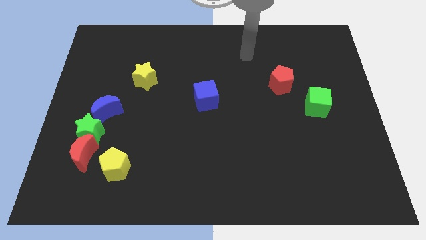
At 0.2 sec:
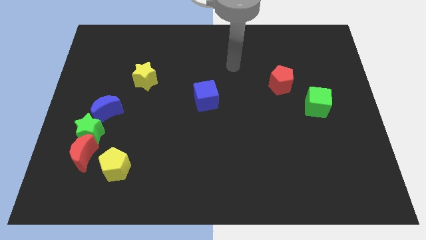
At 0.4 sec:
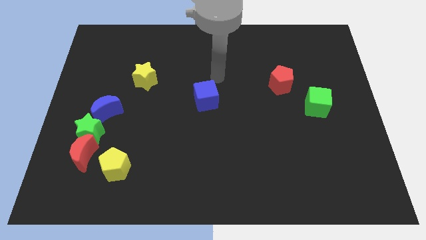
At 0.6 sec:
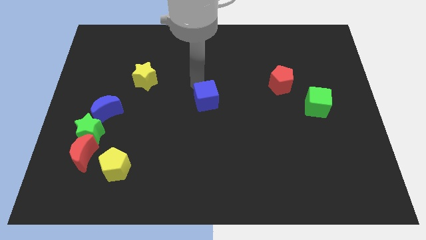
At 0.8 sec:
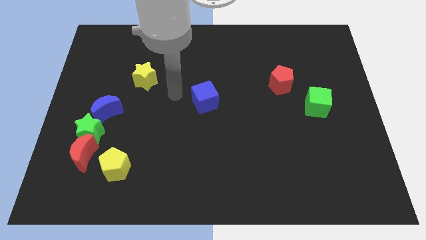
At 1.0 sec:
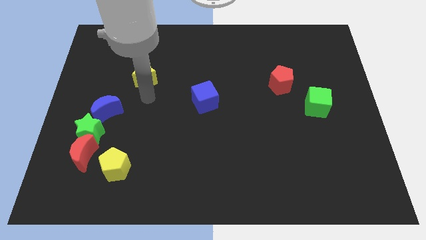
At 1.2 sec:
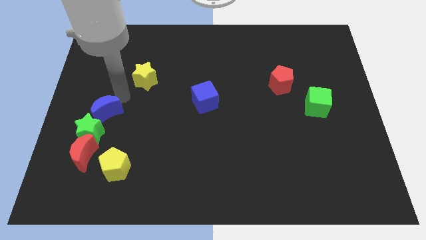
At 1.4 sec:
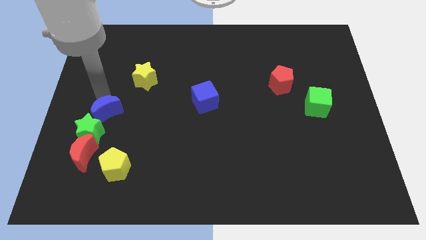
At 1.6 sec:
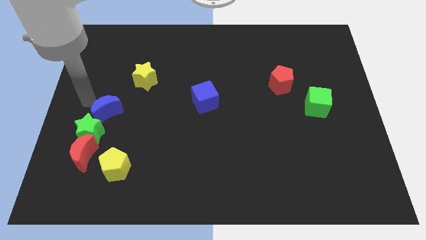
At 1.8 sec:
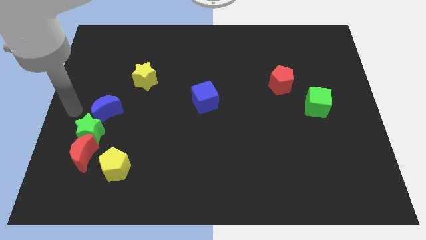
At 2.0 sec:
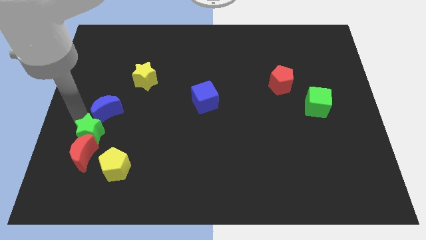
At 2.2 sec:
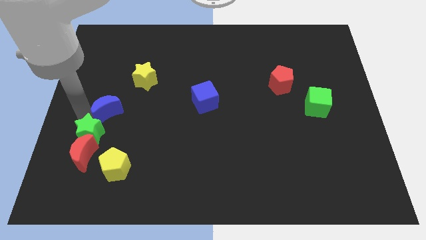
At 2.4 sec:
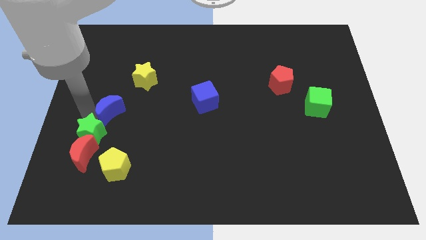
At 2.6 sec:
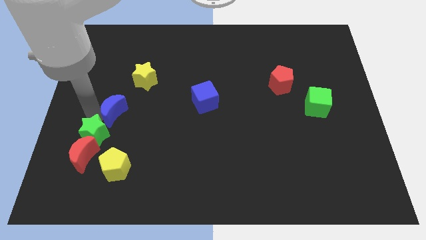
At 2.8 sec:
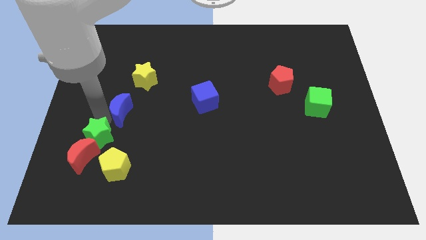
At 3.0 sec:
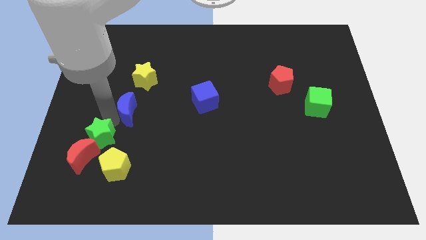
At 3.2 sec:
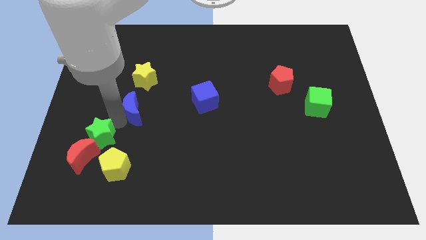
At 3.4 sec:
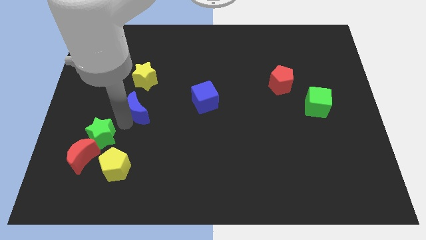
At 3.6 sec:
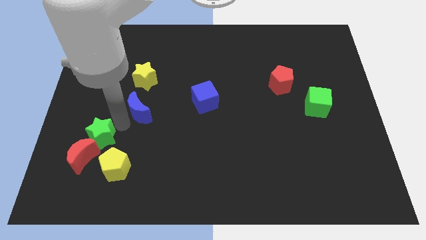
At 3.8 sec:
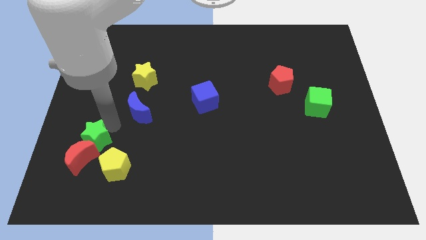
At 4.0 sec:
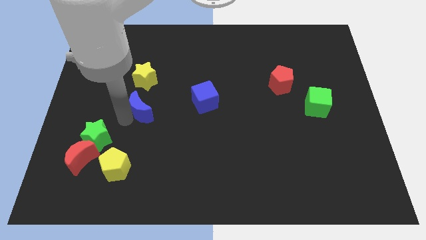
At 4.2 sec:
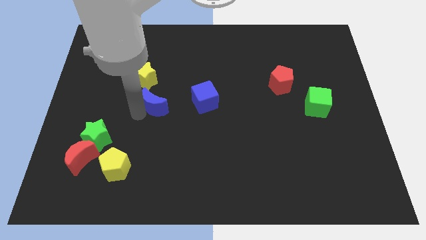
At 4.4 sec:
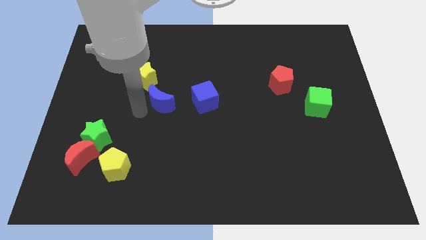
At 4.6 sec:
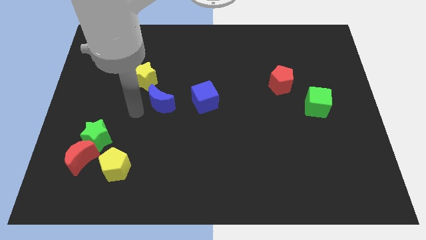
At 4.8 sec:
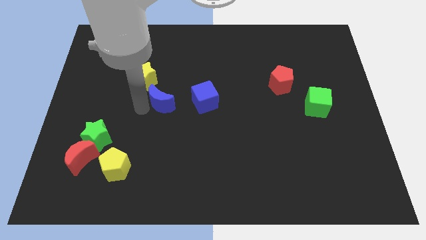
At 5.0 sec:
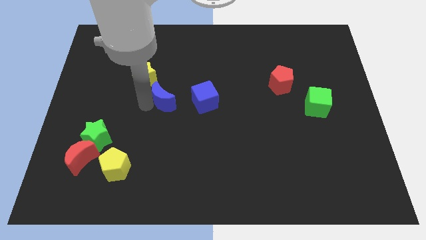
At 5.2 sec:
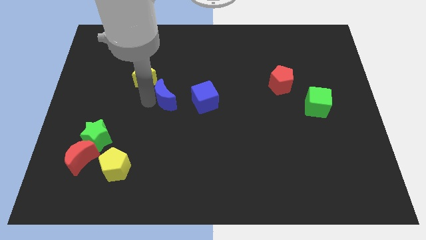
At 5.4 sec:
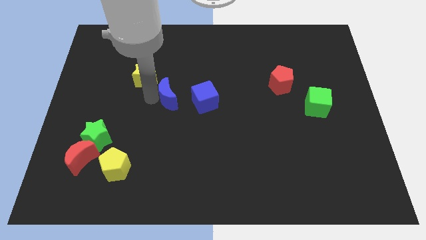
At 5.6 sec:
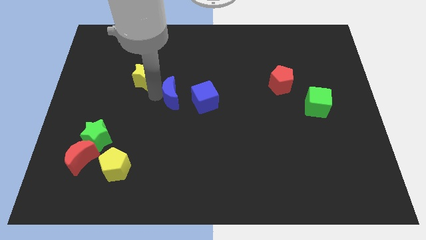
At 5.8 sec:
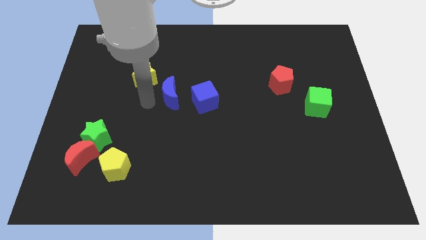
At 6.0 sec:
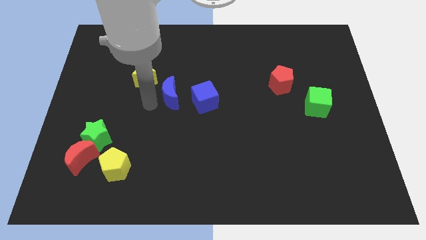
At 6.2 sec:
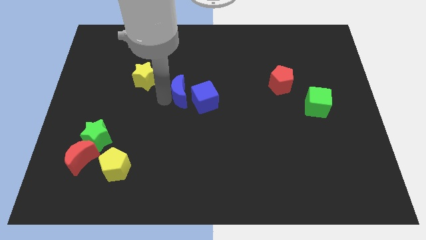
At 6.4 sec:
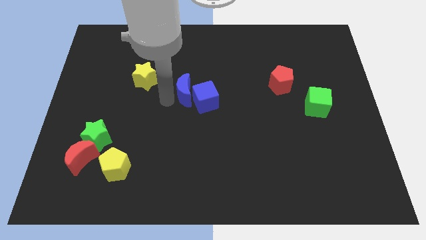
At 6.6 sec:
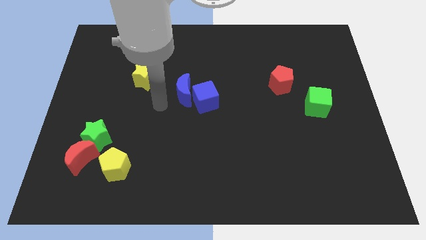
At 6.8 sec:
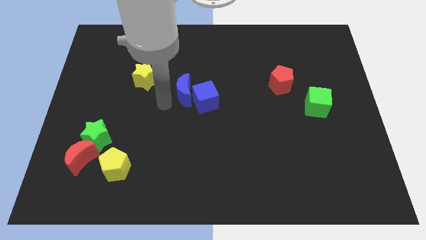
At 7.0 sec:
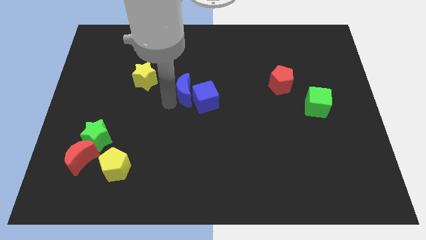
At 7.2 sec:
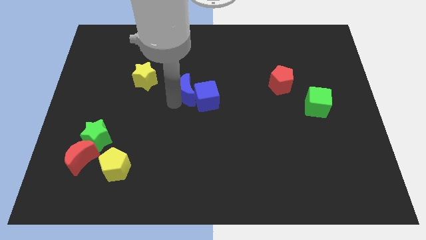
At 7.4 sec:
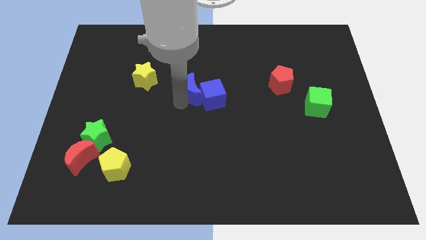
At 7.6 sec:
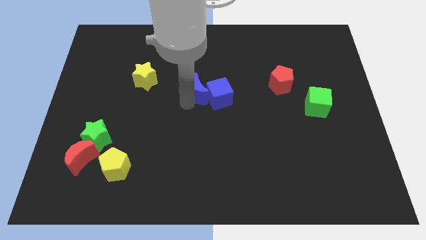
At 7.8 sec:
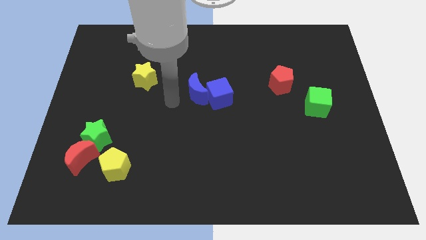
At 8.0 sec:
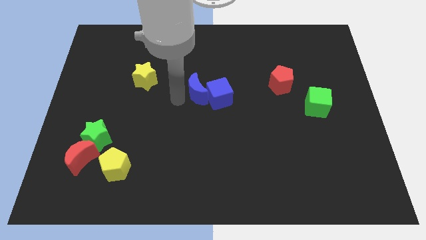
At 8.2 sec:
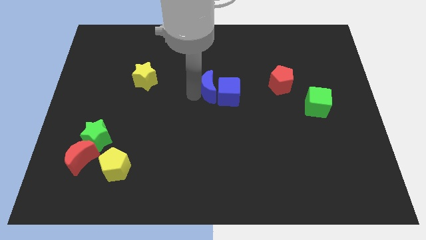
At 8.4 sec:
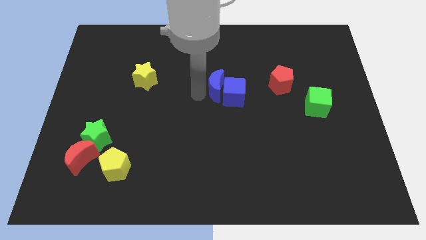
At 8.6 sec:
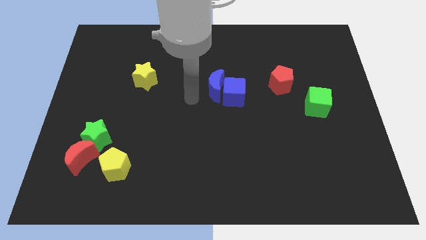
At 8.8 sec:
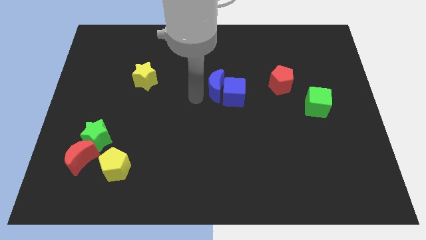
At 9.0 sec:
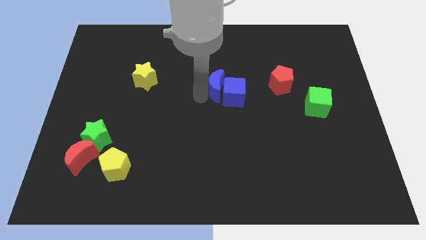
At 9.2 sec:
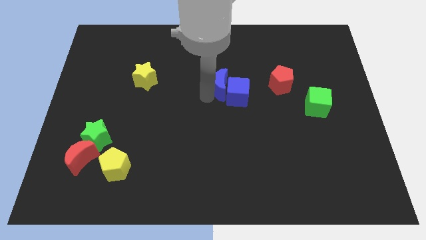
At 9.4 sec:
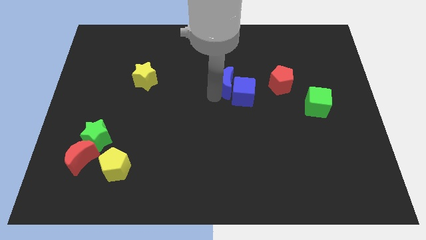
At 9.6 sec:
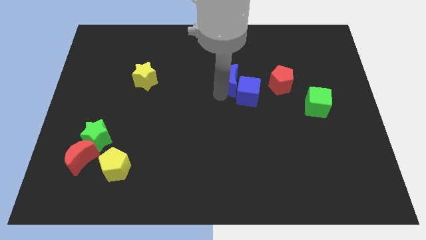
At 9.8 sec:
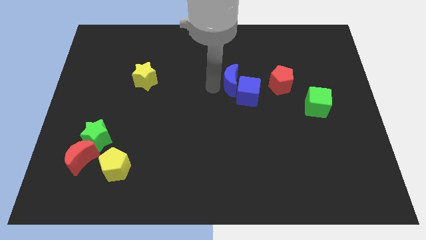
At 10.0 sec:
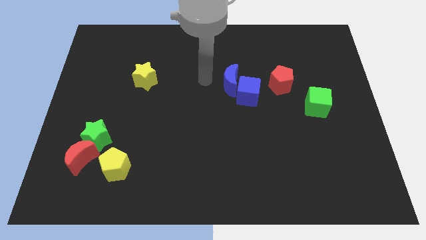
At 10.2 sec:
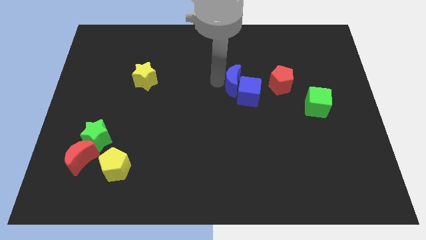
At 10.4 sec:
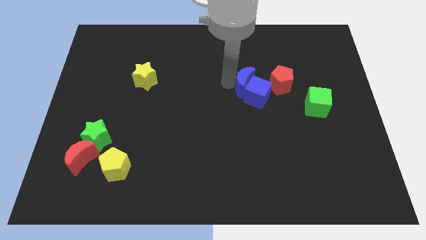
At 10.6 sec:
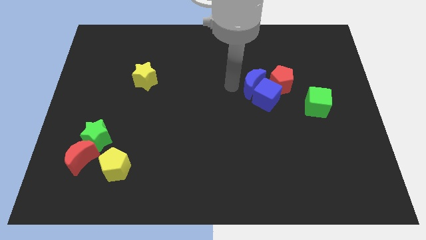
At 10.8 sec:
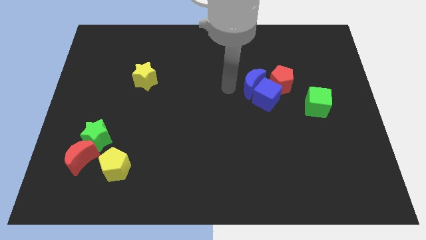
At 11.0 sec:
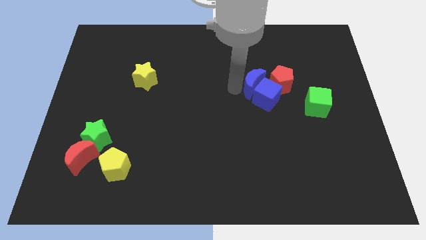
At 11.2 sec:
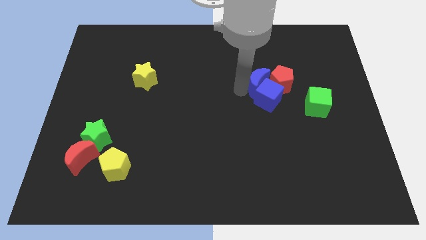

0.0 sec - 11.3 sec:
push the blue moon close to the red pentagon

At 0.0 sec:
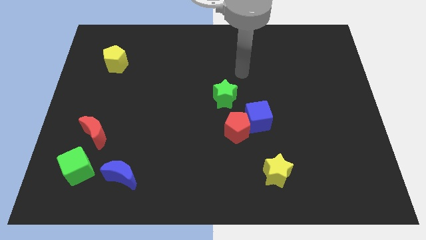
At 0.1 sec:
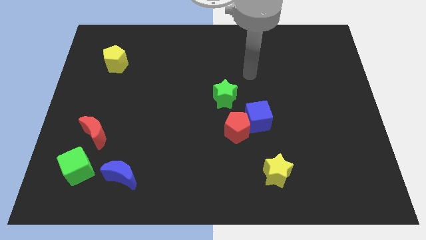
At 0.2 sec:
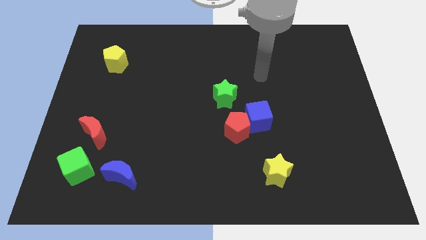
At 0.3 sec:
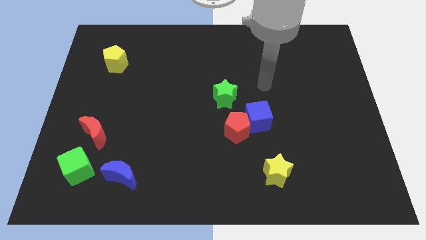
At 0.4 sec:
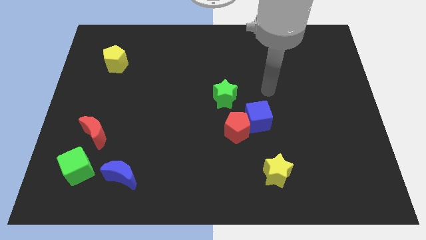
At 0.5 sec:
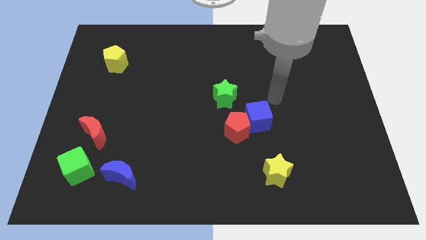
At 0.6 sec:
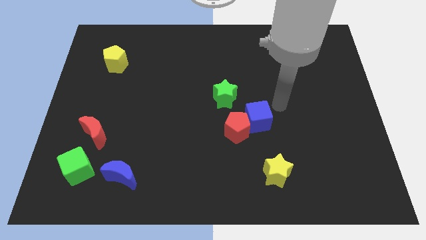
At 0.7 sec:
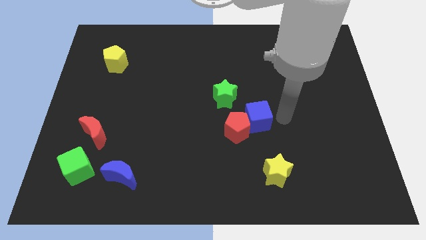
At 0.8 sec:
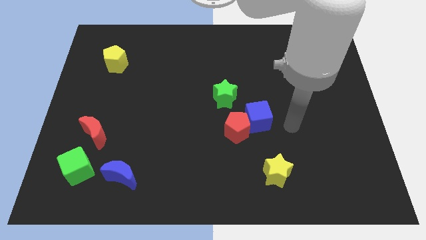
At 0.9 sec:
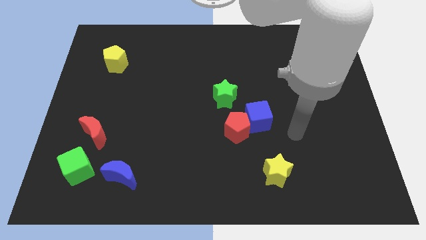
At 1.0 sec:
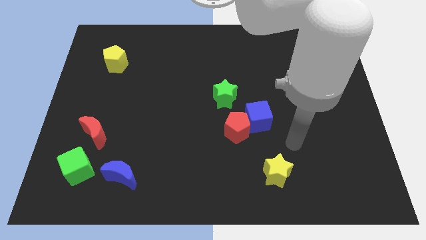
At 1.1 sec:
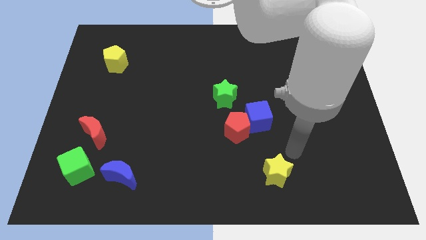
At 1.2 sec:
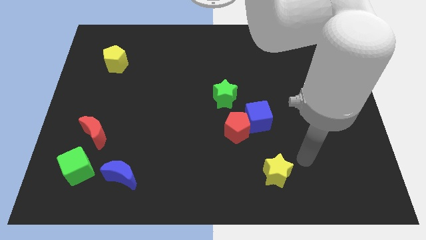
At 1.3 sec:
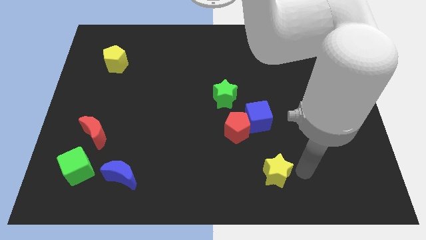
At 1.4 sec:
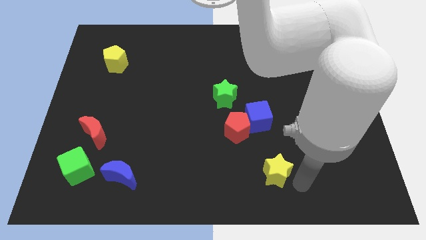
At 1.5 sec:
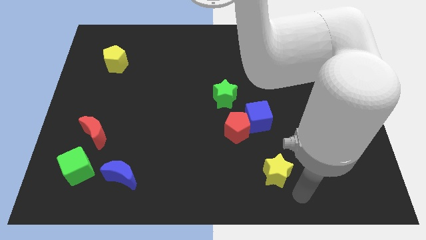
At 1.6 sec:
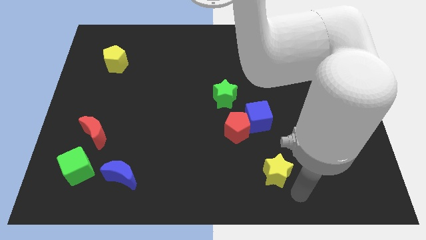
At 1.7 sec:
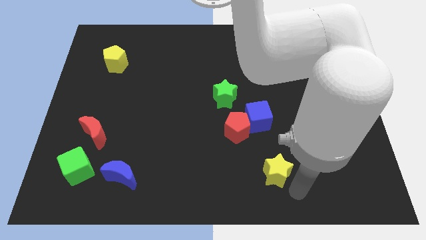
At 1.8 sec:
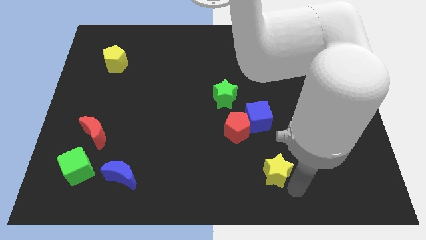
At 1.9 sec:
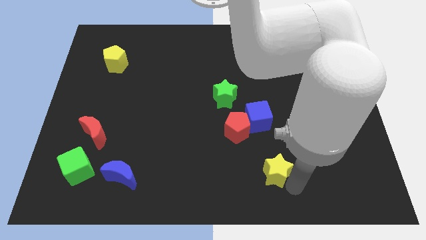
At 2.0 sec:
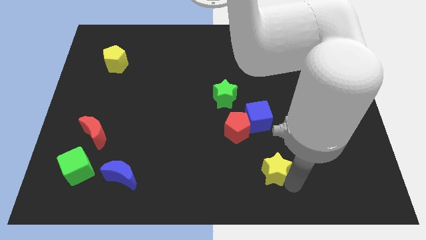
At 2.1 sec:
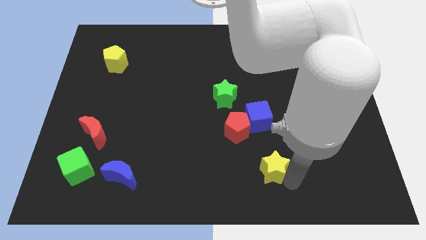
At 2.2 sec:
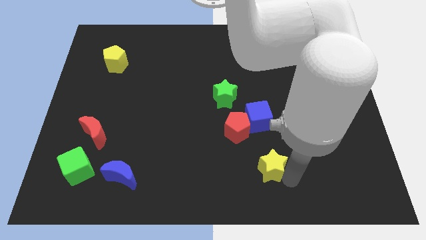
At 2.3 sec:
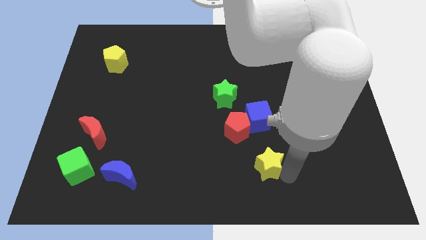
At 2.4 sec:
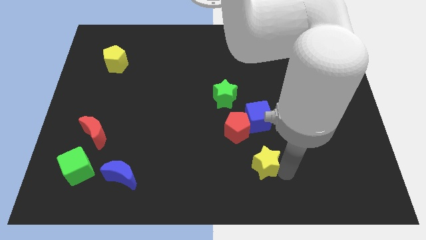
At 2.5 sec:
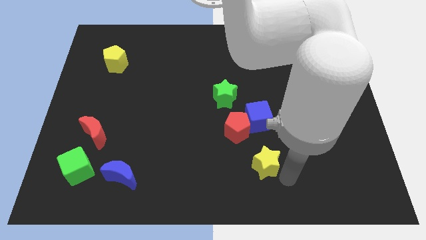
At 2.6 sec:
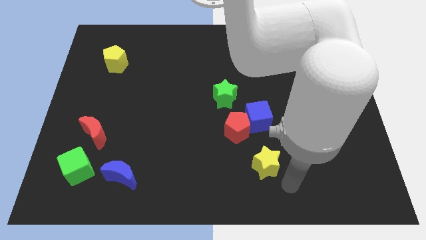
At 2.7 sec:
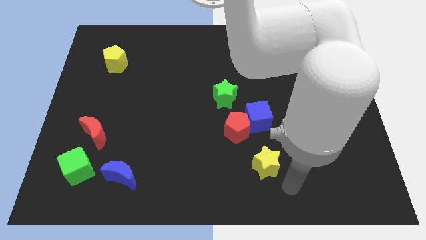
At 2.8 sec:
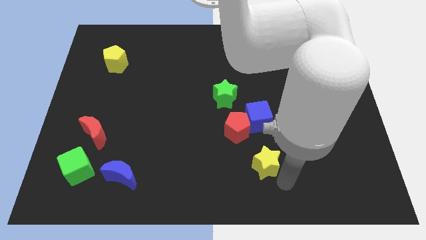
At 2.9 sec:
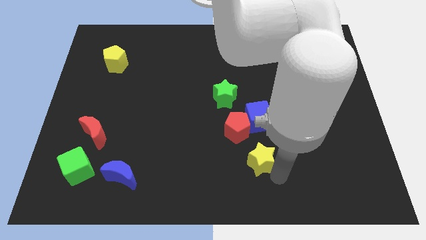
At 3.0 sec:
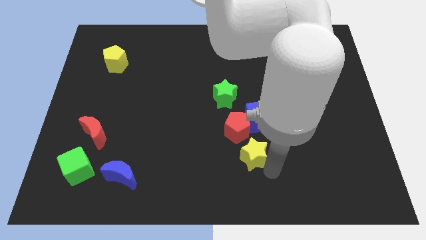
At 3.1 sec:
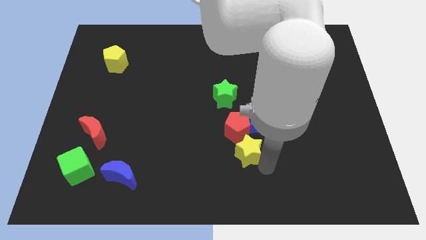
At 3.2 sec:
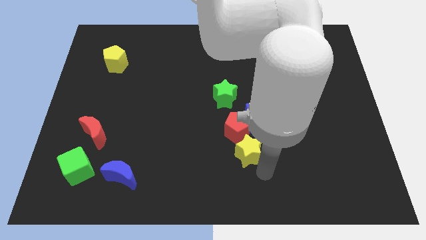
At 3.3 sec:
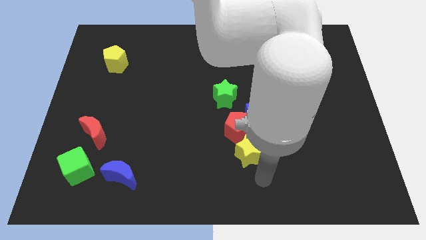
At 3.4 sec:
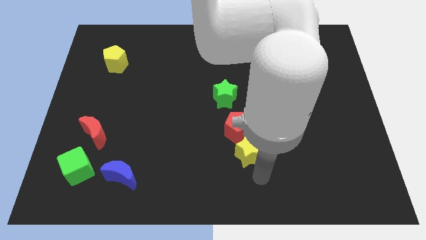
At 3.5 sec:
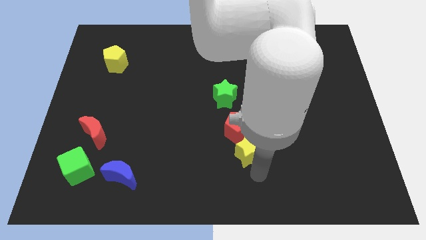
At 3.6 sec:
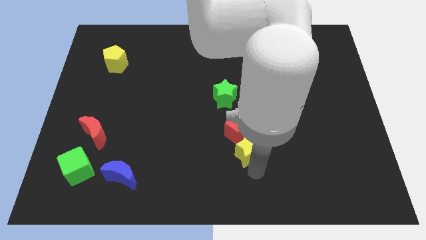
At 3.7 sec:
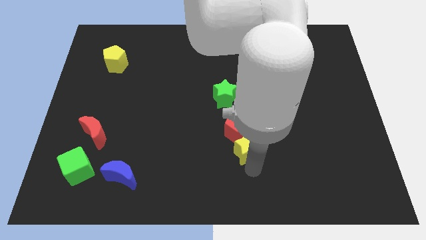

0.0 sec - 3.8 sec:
slide the yellow star next to the red pentagon
